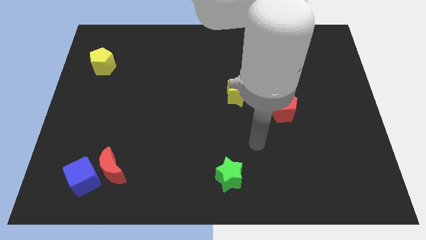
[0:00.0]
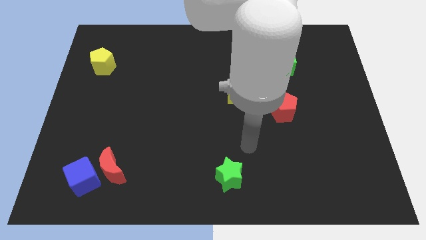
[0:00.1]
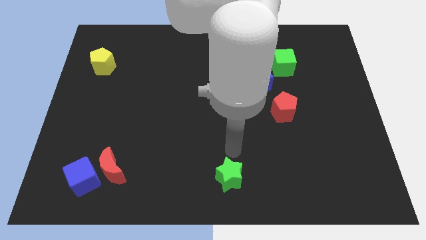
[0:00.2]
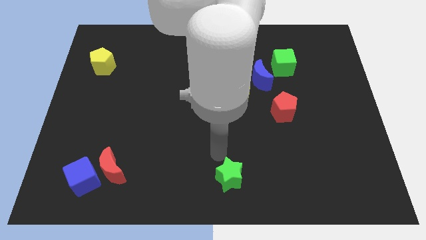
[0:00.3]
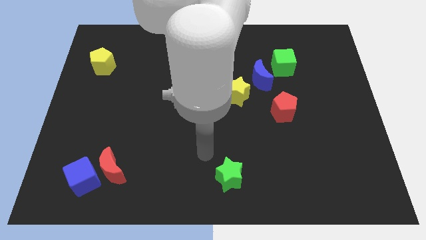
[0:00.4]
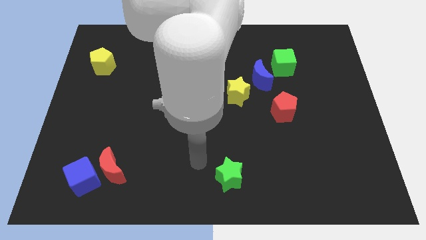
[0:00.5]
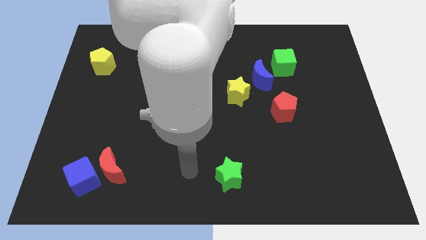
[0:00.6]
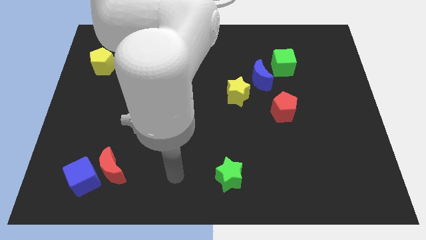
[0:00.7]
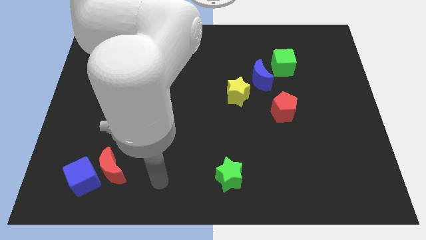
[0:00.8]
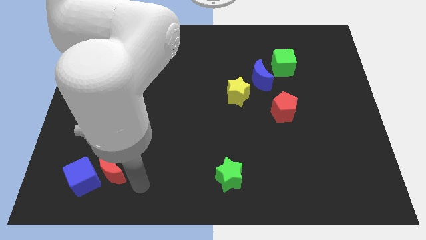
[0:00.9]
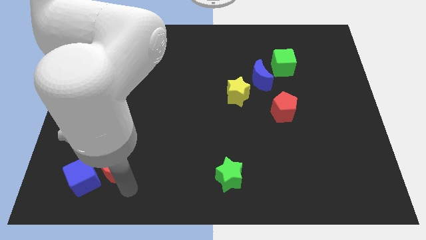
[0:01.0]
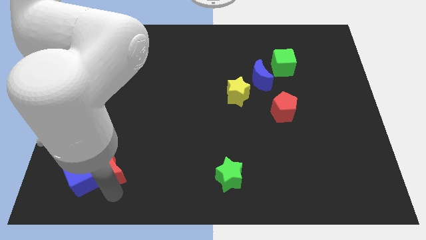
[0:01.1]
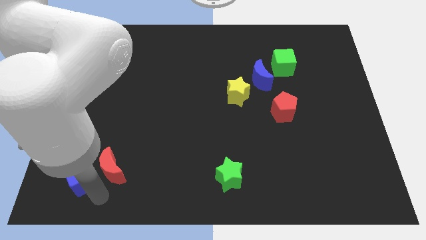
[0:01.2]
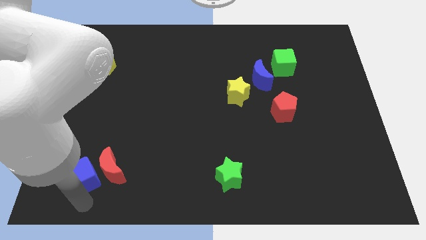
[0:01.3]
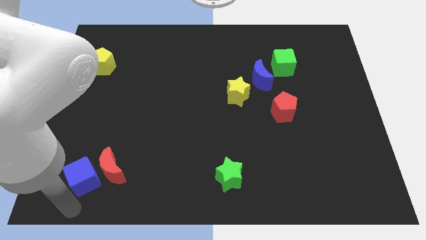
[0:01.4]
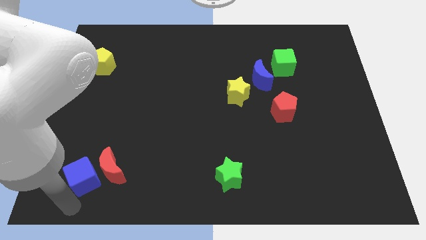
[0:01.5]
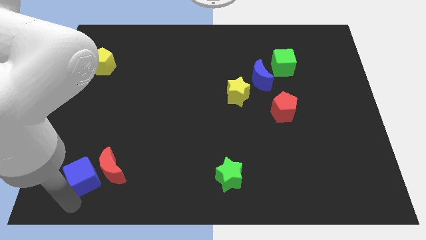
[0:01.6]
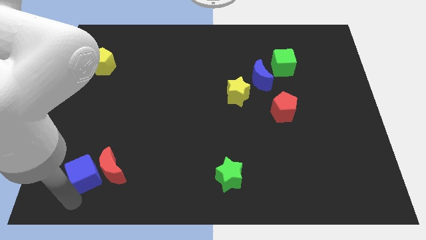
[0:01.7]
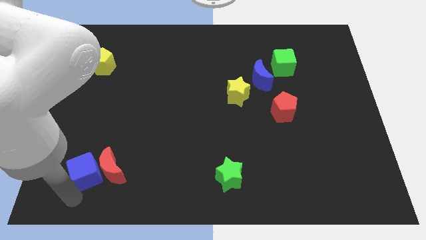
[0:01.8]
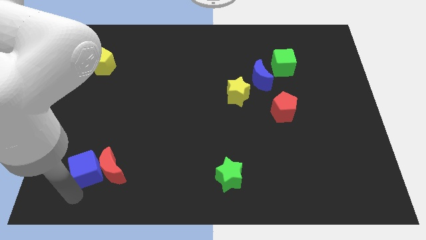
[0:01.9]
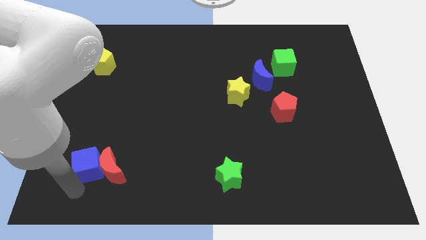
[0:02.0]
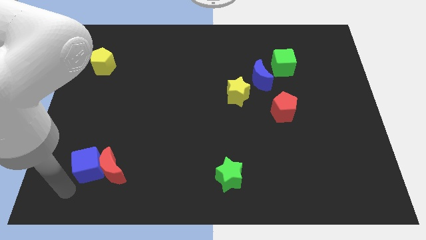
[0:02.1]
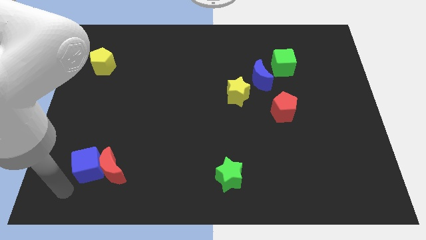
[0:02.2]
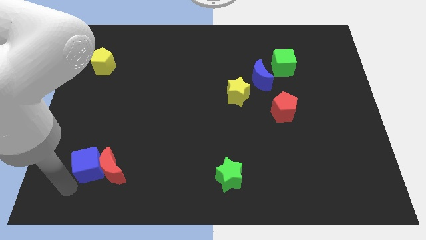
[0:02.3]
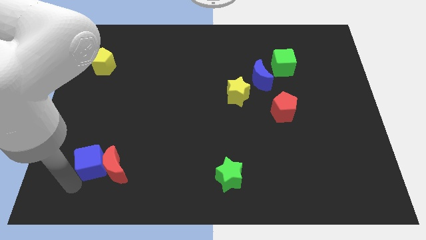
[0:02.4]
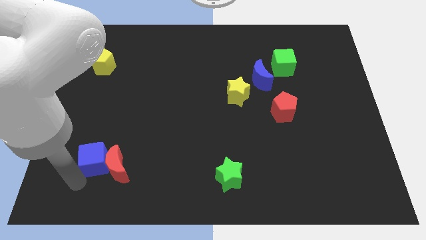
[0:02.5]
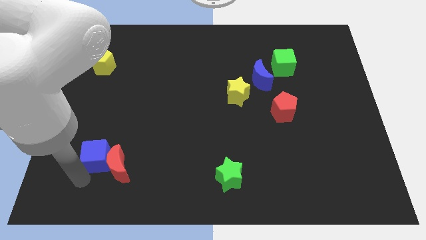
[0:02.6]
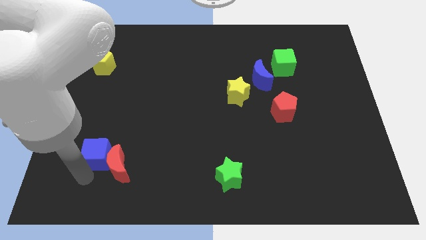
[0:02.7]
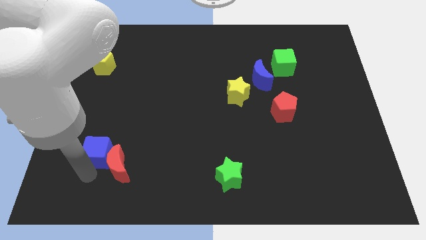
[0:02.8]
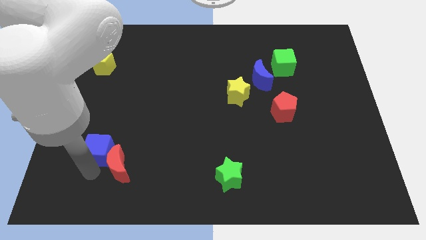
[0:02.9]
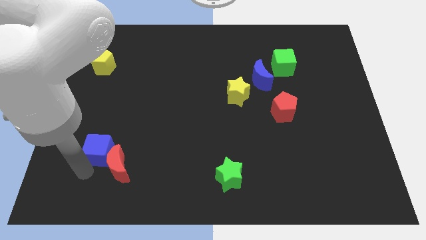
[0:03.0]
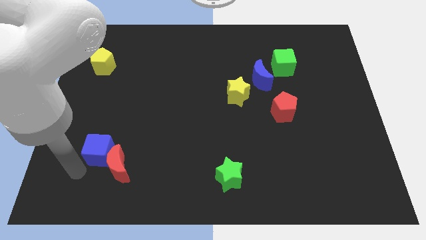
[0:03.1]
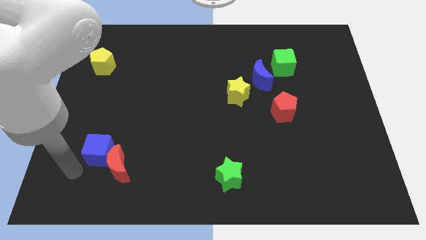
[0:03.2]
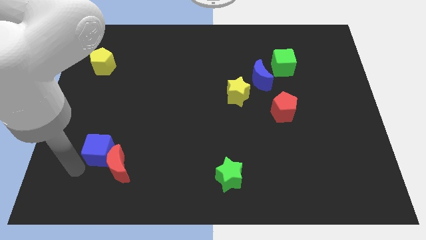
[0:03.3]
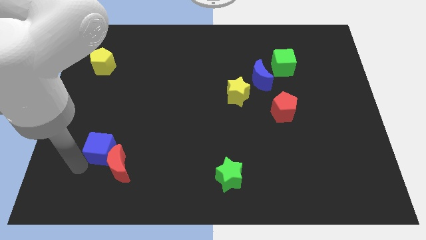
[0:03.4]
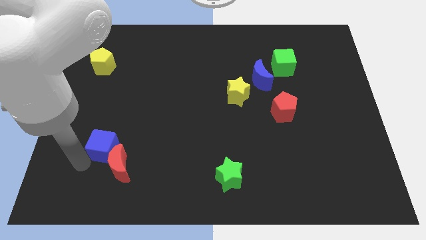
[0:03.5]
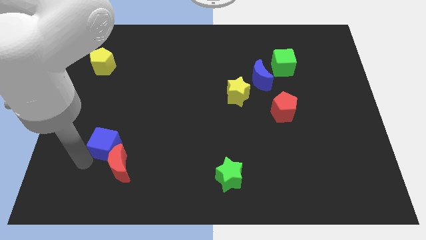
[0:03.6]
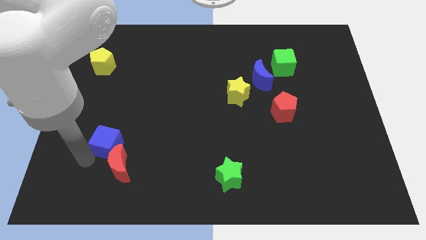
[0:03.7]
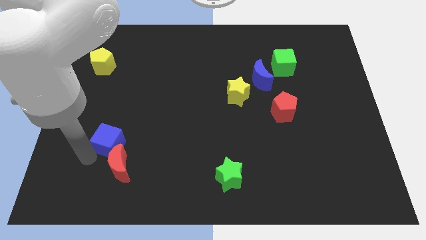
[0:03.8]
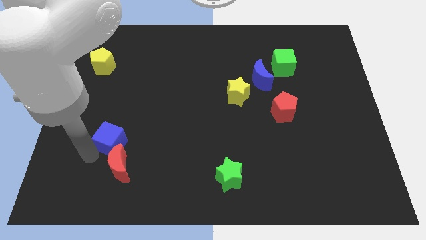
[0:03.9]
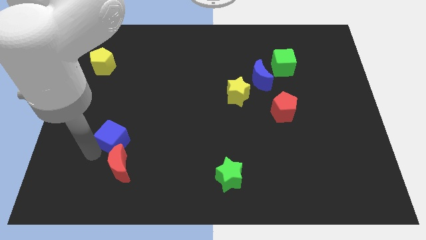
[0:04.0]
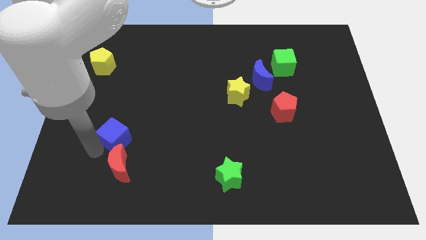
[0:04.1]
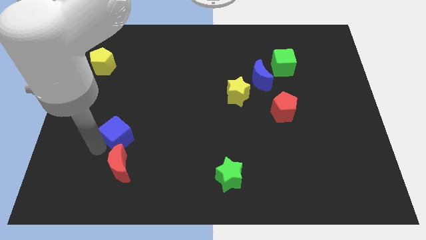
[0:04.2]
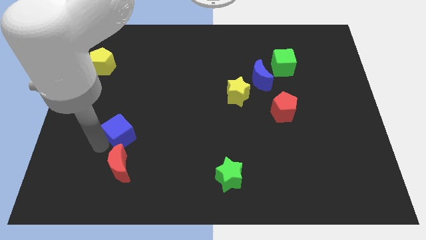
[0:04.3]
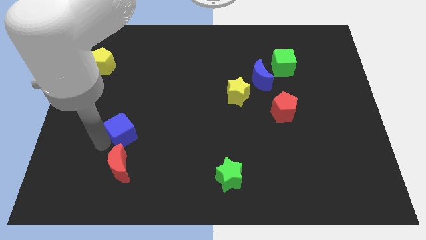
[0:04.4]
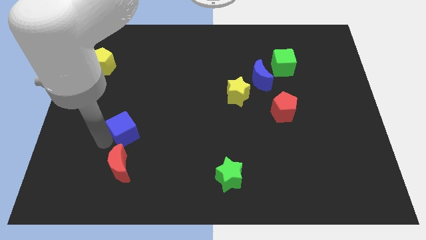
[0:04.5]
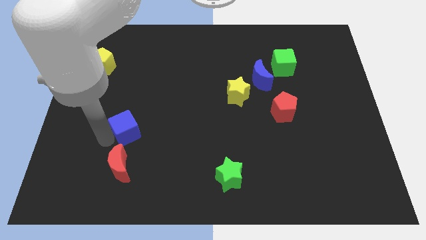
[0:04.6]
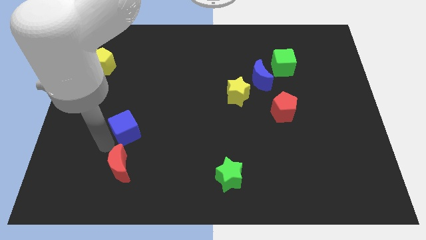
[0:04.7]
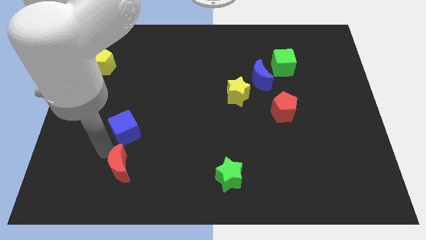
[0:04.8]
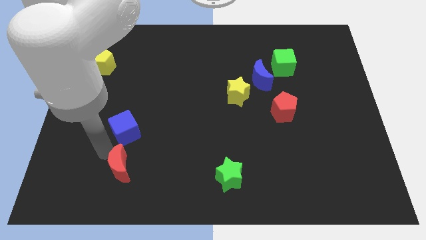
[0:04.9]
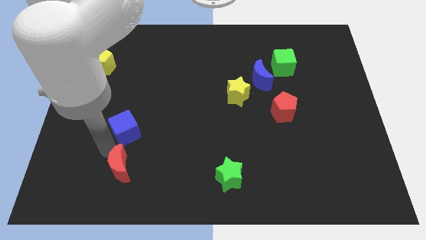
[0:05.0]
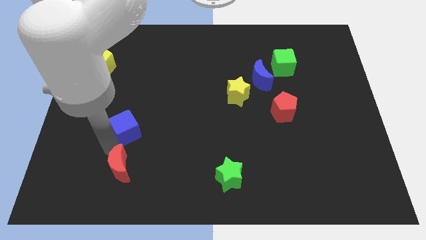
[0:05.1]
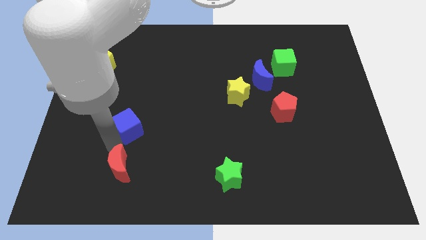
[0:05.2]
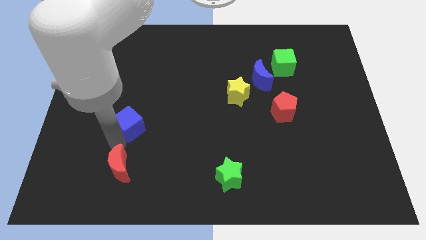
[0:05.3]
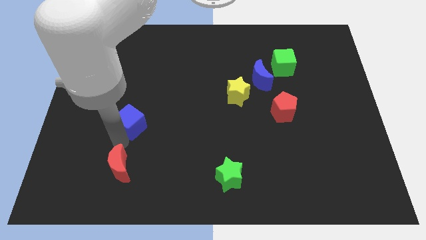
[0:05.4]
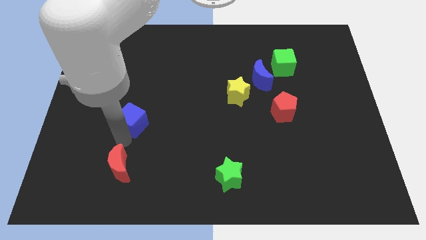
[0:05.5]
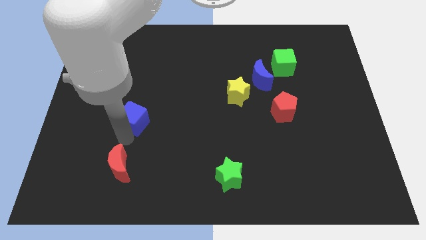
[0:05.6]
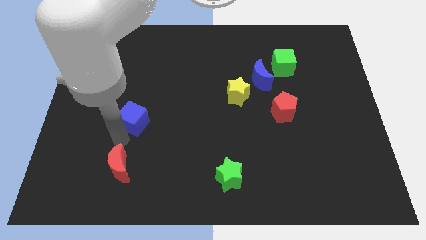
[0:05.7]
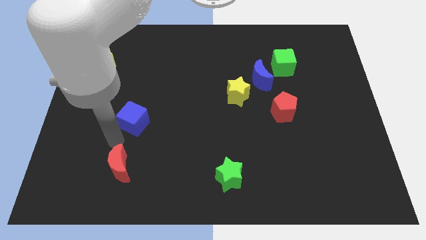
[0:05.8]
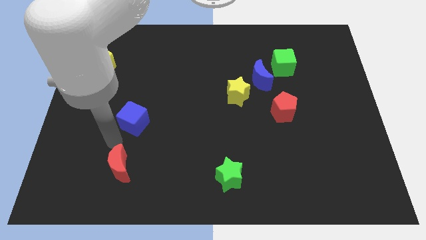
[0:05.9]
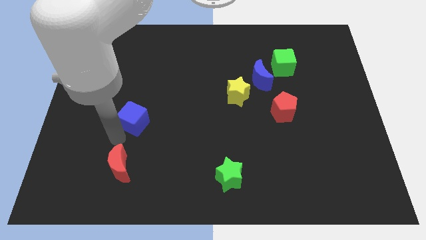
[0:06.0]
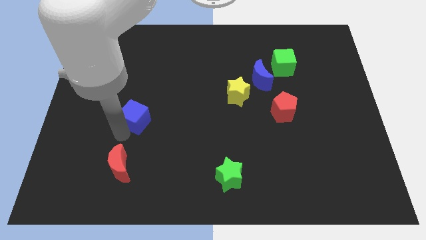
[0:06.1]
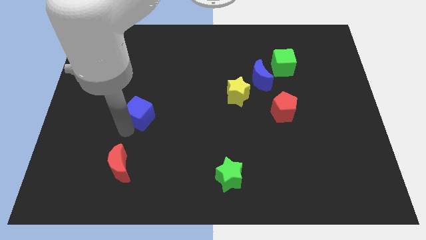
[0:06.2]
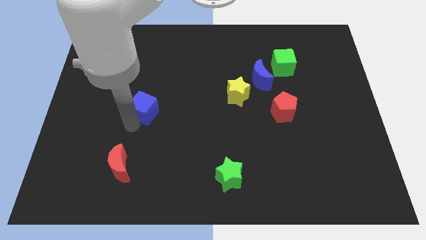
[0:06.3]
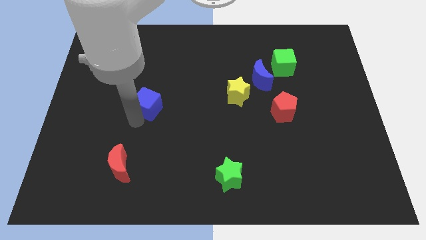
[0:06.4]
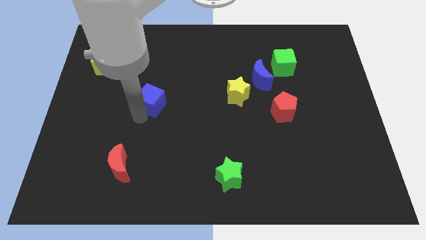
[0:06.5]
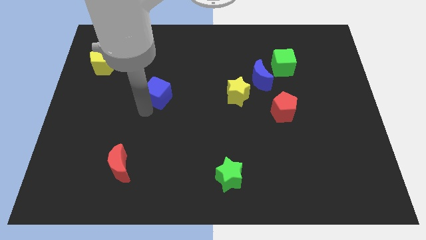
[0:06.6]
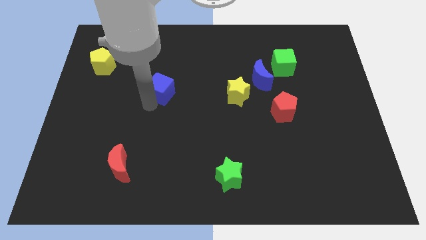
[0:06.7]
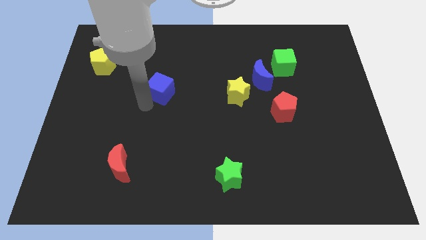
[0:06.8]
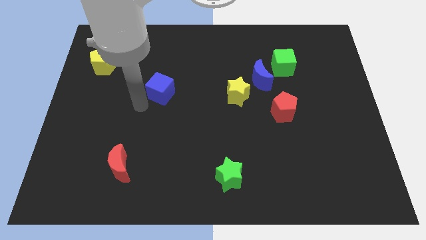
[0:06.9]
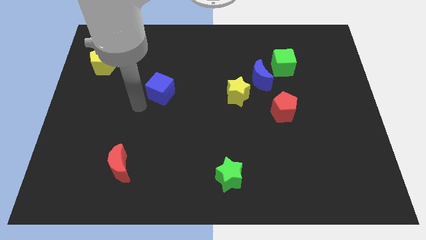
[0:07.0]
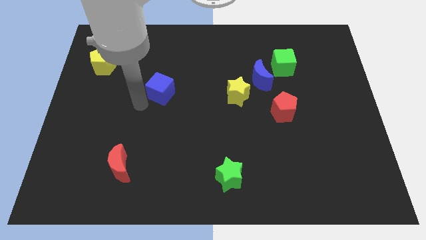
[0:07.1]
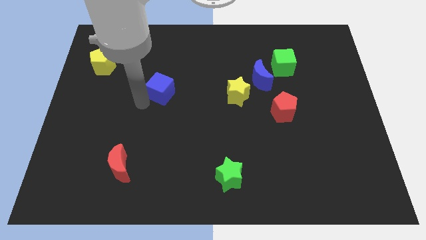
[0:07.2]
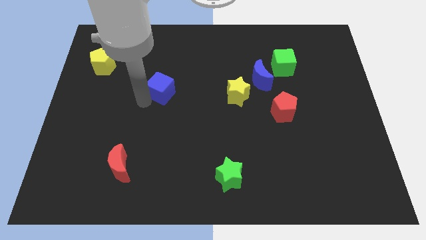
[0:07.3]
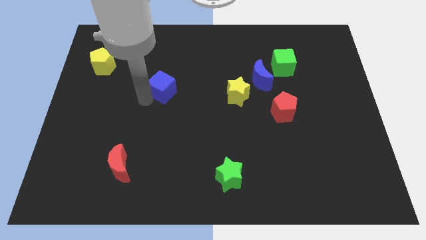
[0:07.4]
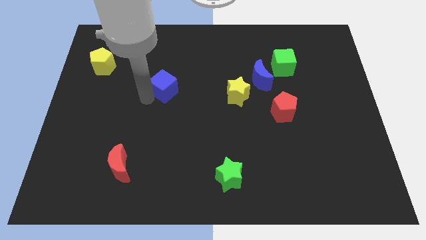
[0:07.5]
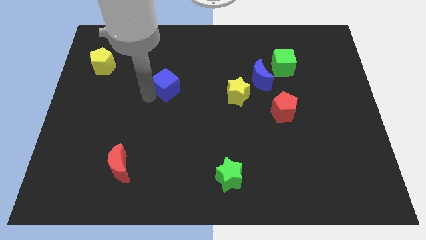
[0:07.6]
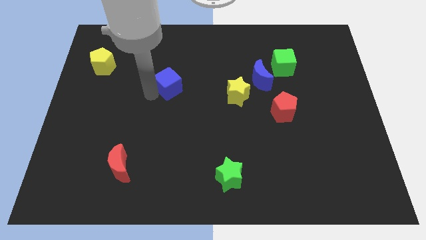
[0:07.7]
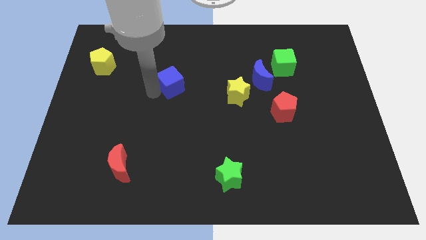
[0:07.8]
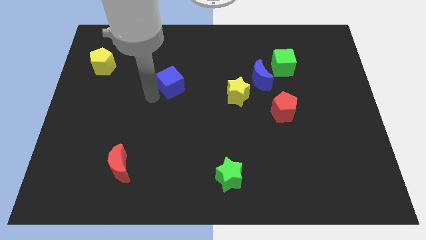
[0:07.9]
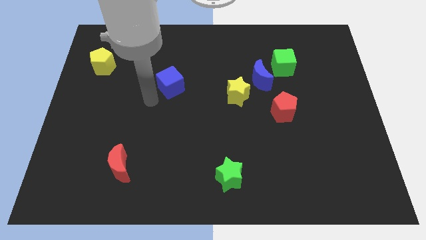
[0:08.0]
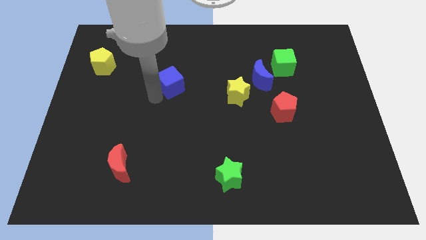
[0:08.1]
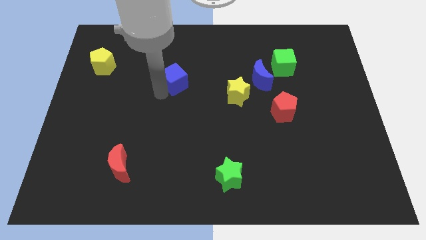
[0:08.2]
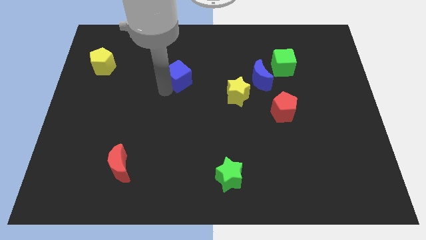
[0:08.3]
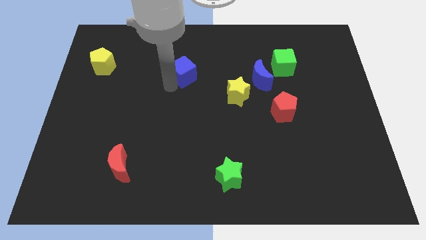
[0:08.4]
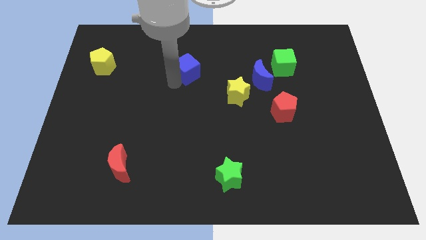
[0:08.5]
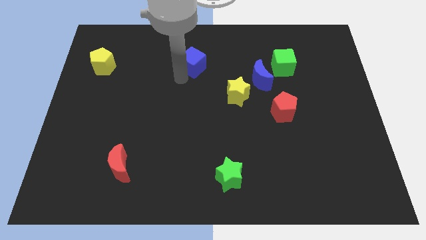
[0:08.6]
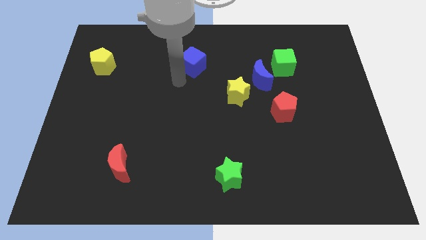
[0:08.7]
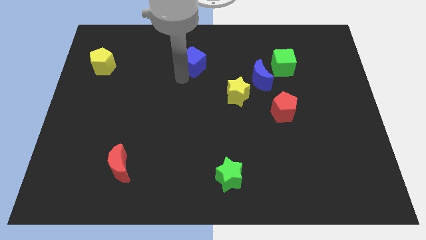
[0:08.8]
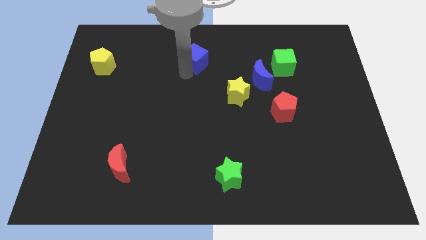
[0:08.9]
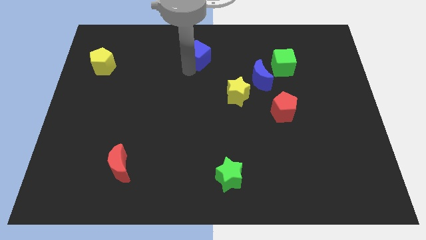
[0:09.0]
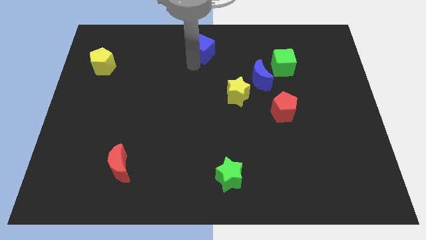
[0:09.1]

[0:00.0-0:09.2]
move the blue cube to the top side
